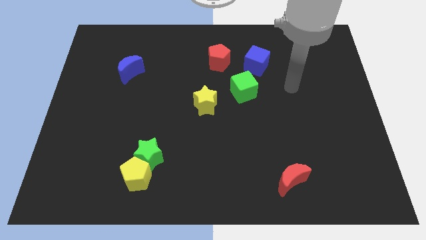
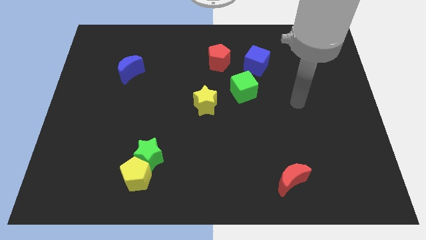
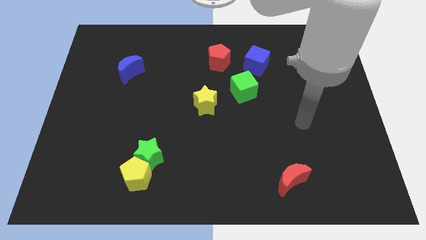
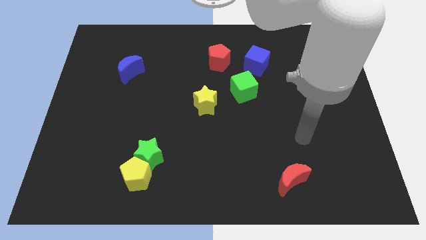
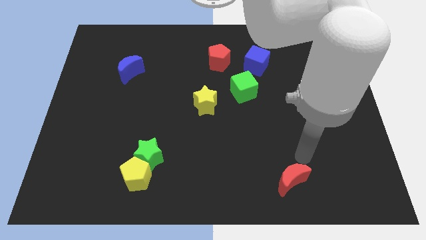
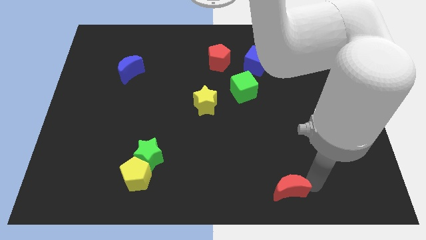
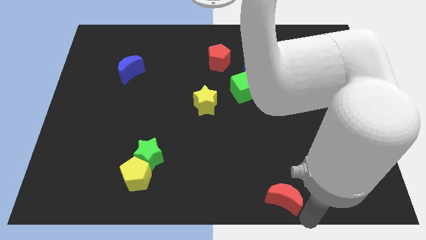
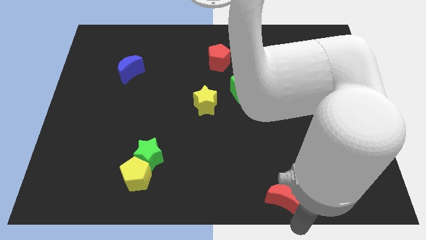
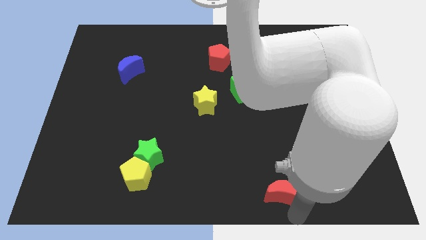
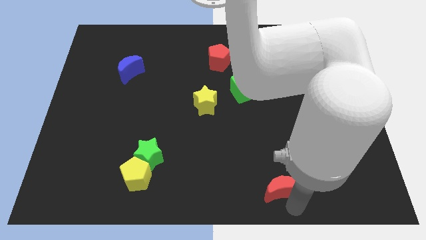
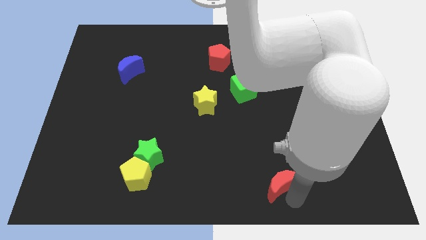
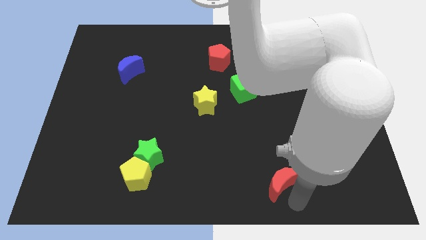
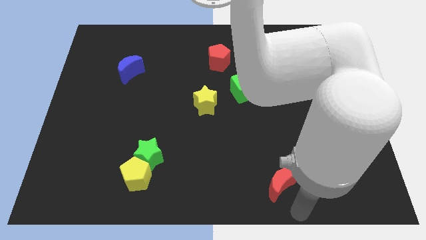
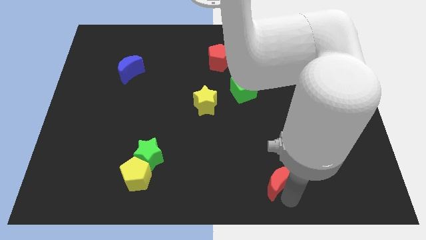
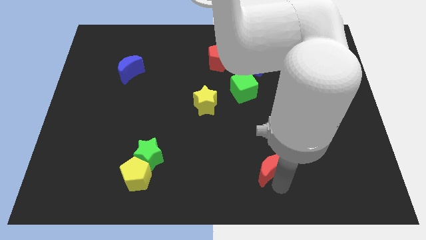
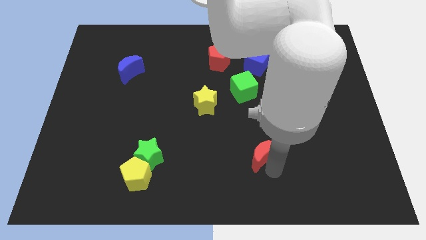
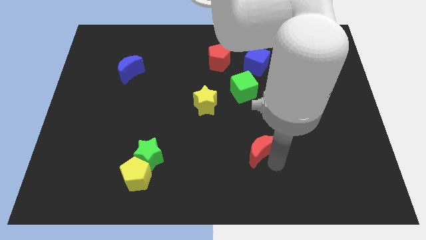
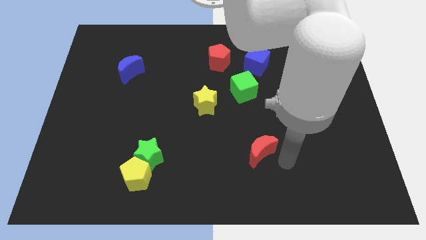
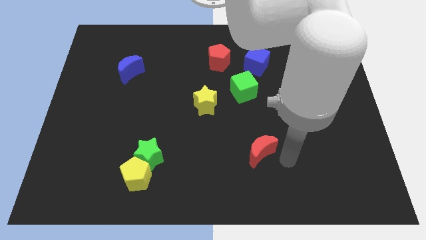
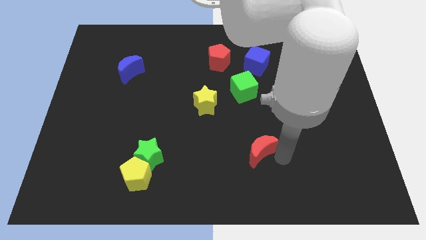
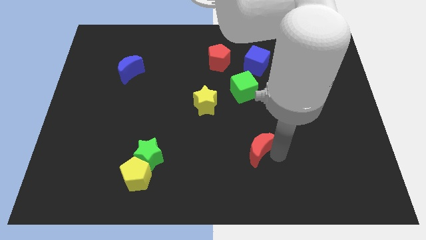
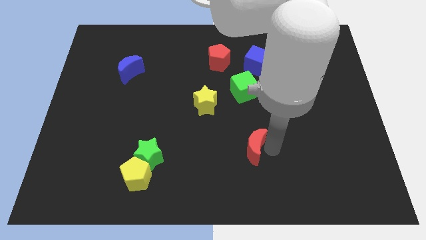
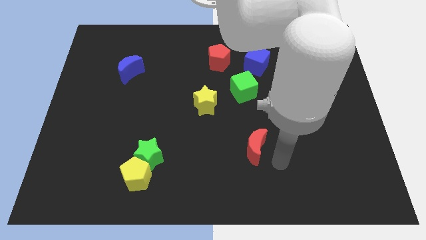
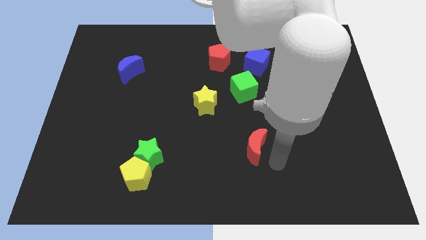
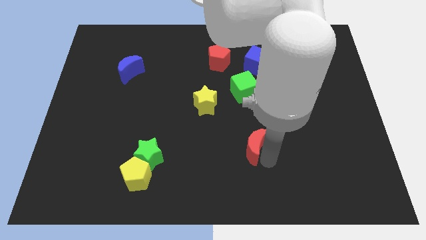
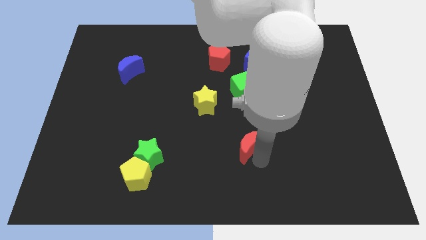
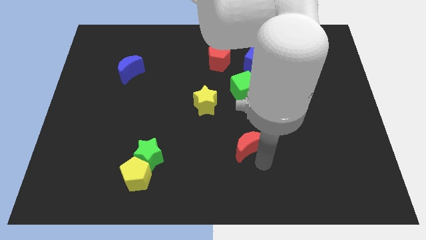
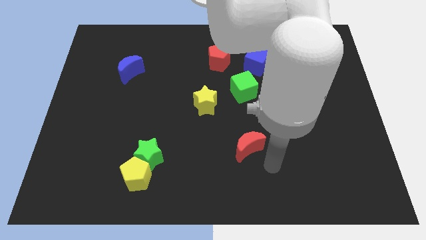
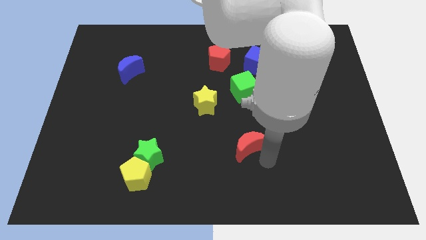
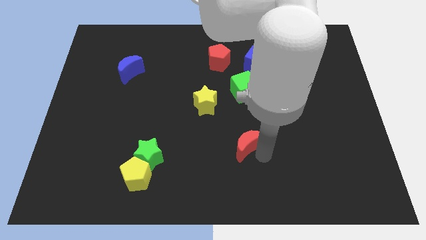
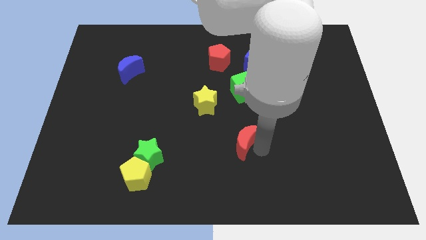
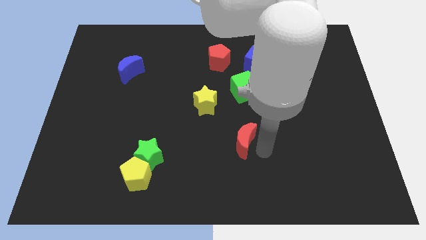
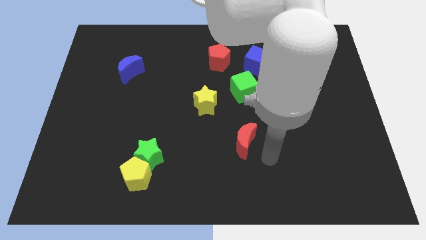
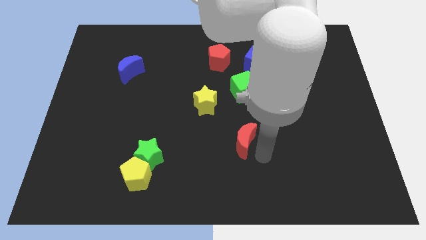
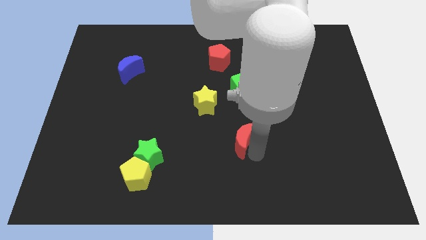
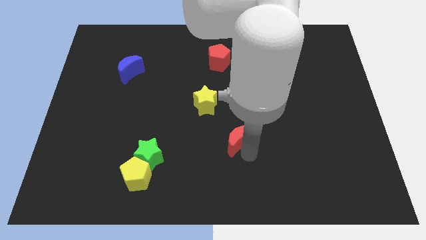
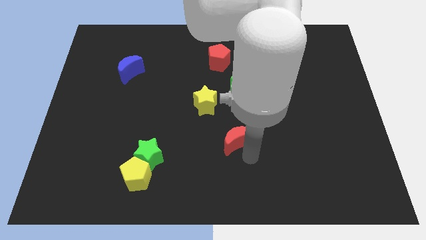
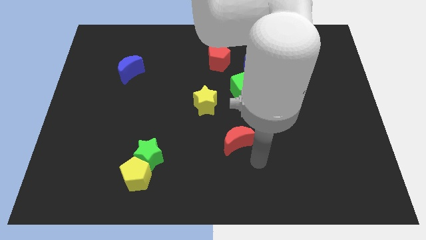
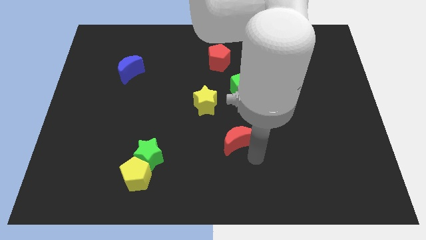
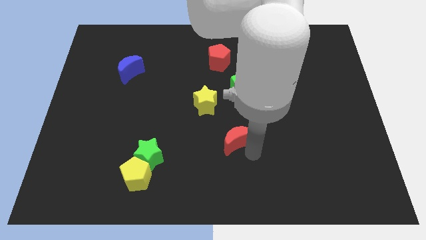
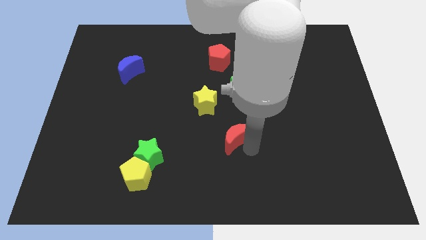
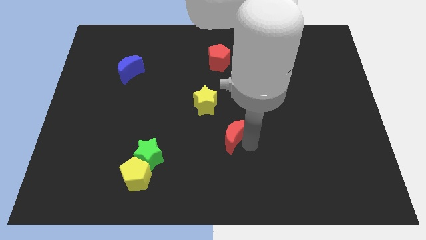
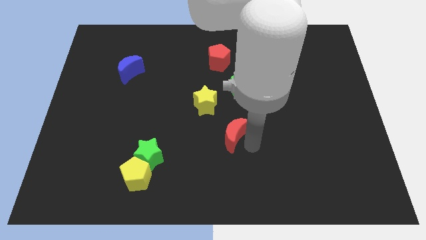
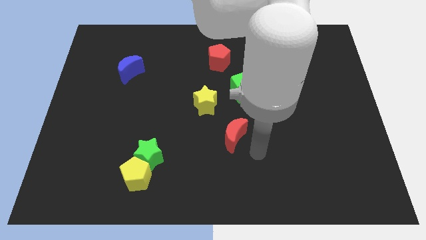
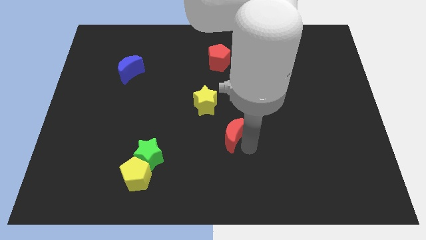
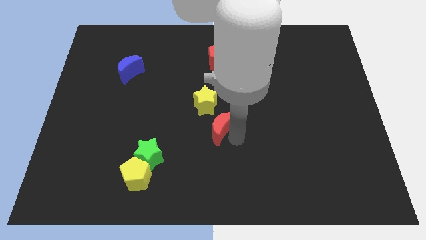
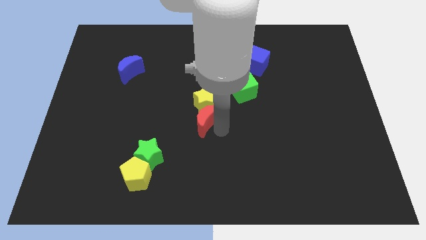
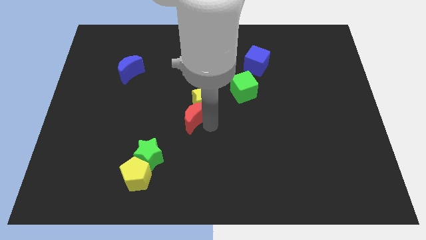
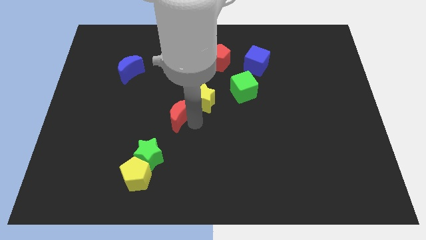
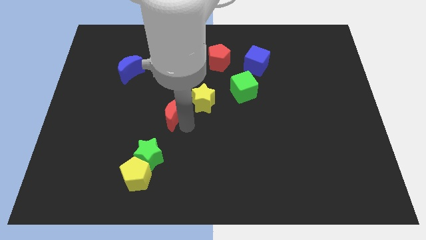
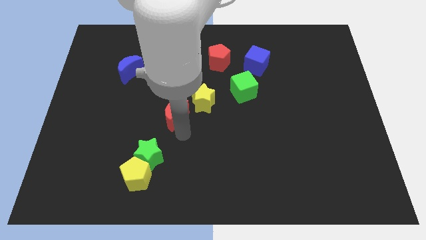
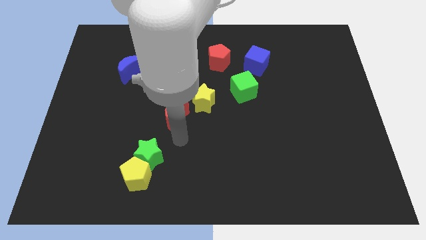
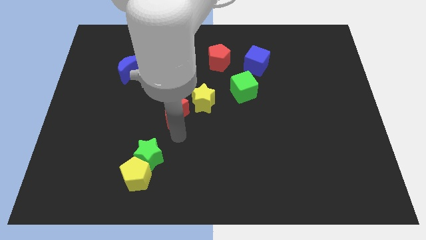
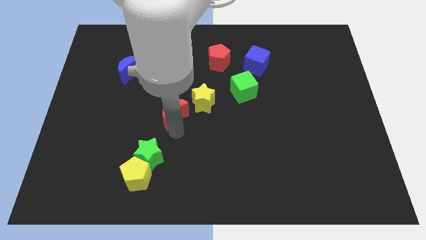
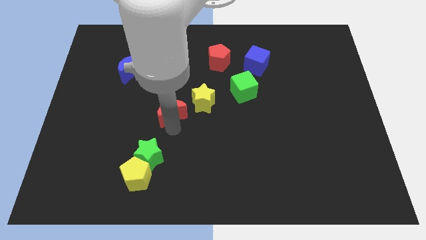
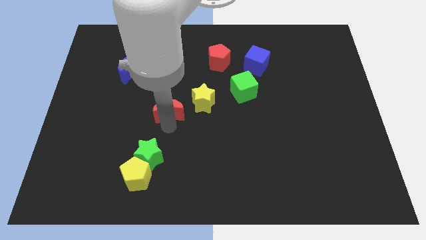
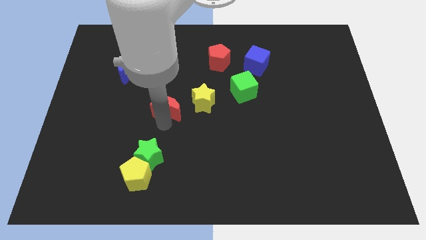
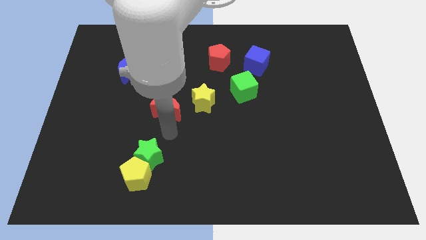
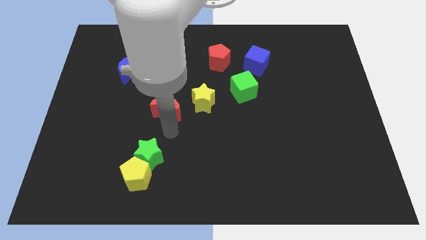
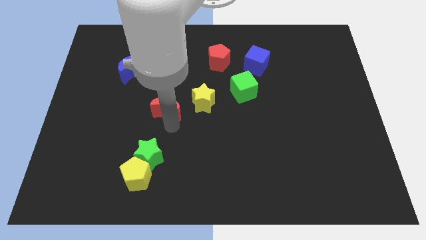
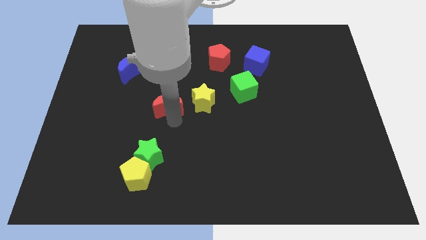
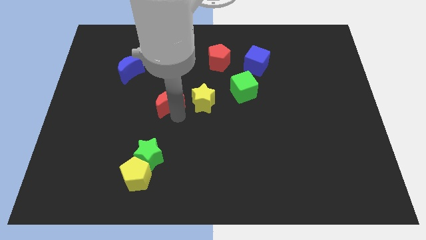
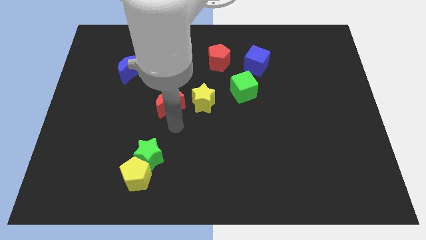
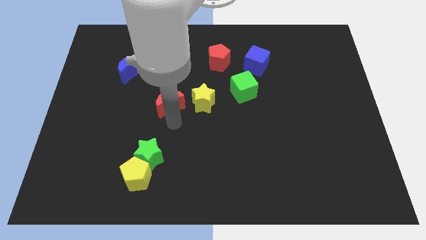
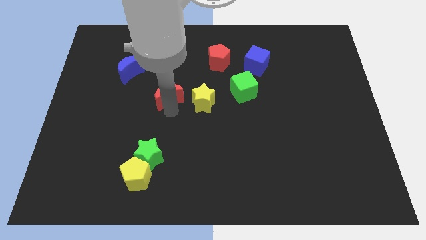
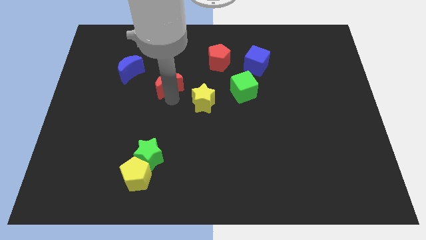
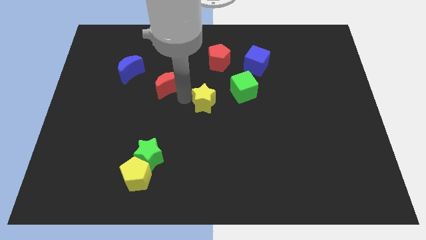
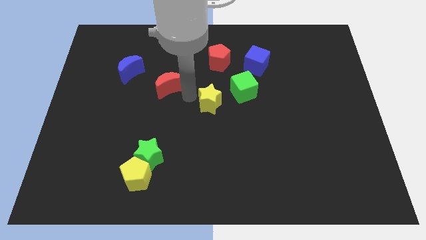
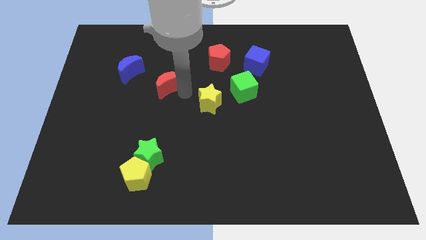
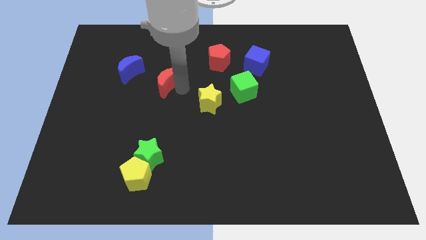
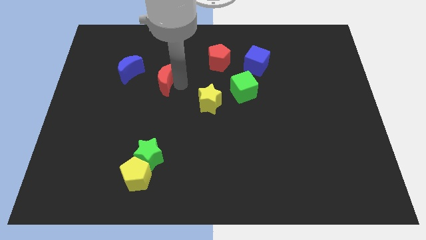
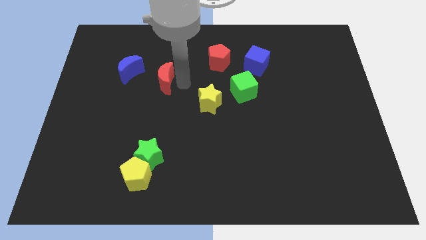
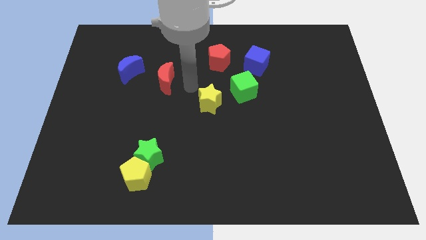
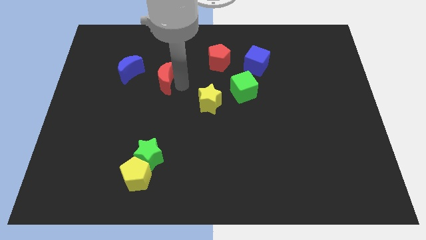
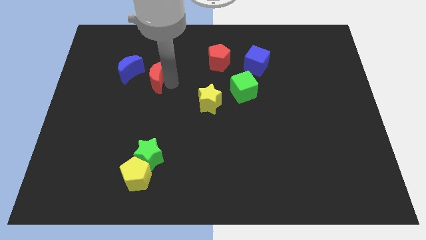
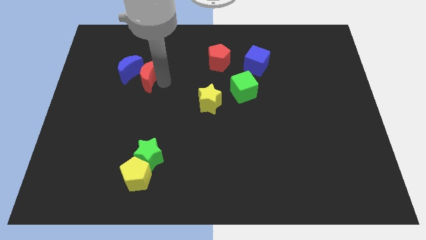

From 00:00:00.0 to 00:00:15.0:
put the red moon to the blue moon
